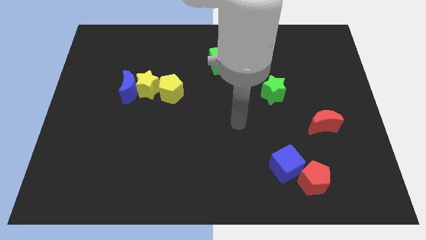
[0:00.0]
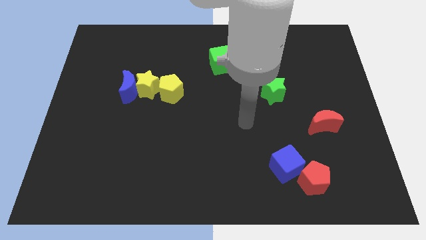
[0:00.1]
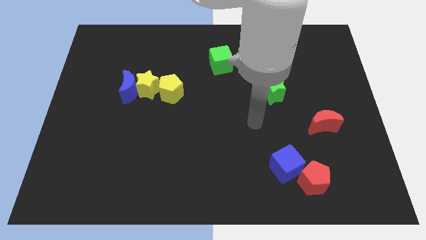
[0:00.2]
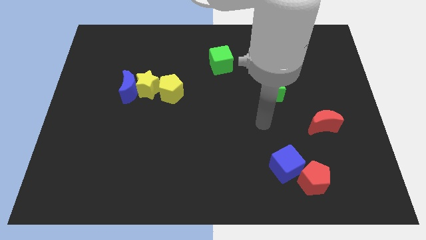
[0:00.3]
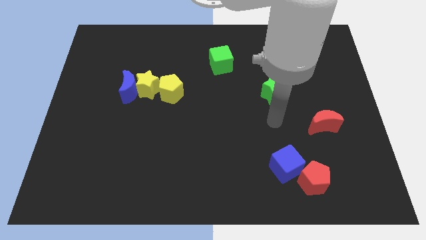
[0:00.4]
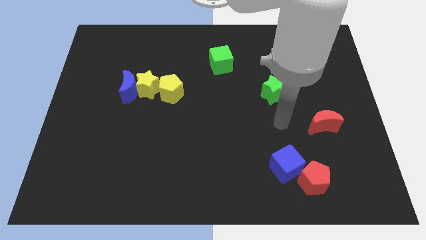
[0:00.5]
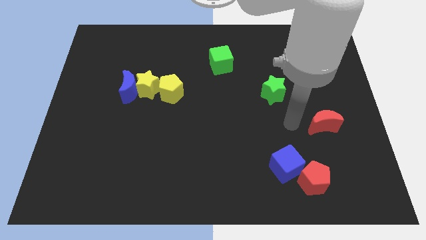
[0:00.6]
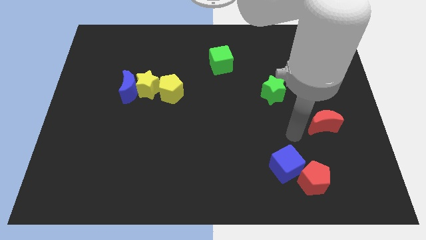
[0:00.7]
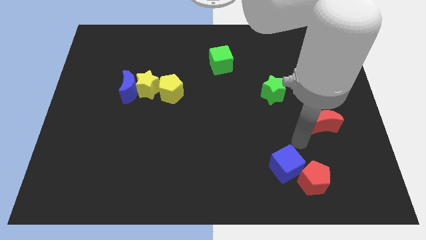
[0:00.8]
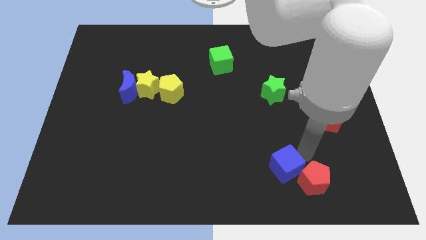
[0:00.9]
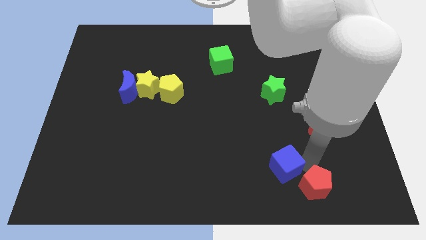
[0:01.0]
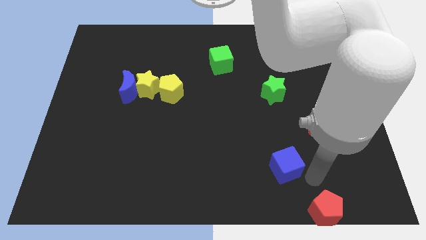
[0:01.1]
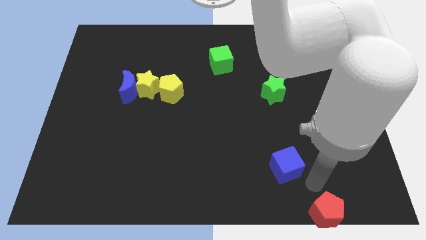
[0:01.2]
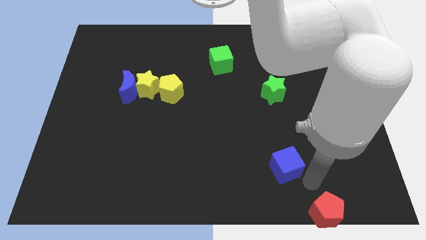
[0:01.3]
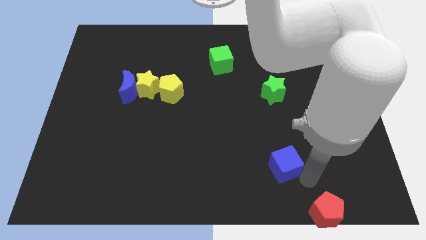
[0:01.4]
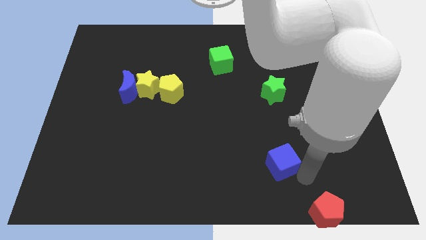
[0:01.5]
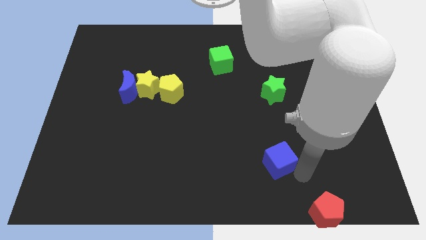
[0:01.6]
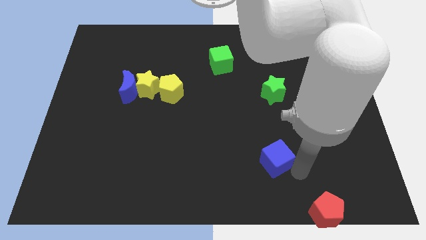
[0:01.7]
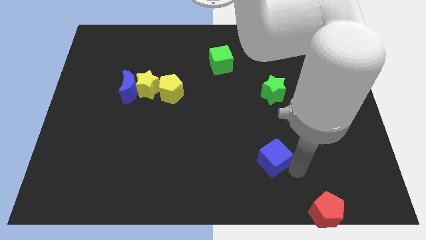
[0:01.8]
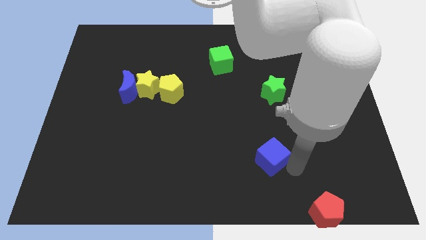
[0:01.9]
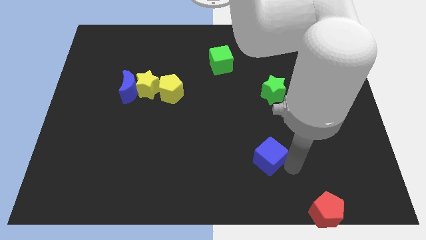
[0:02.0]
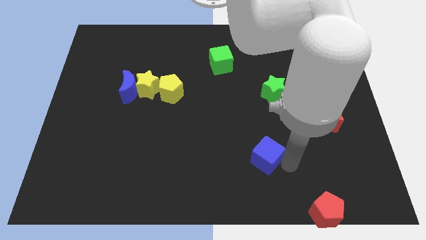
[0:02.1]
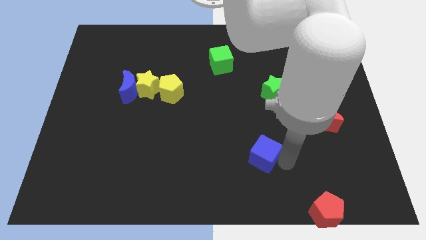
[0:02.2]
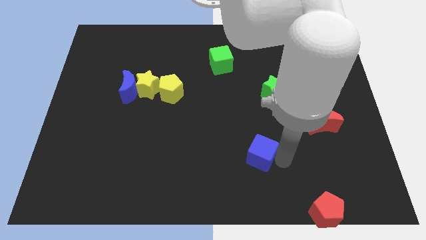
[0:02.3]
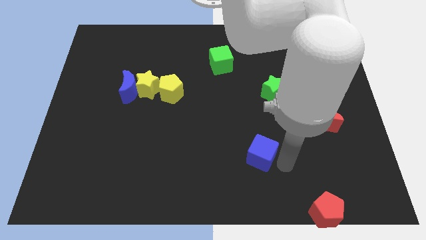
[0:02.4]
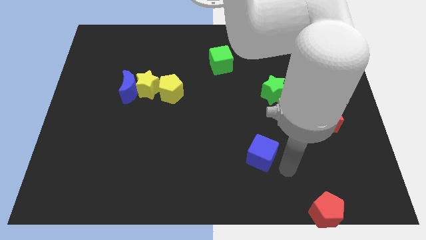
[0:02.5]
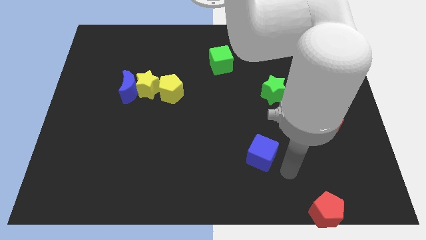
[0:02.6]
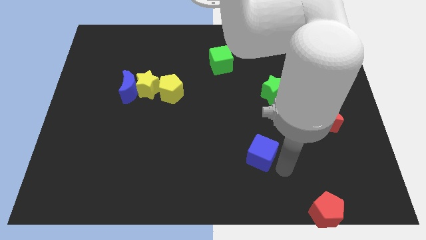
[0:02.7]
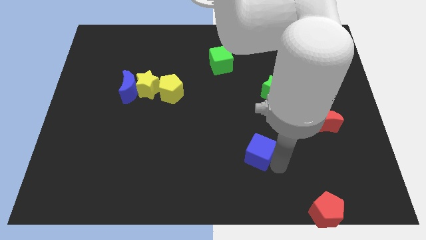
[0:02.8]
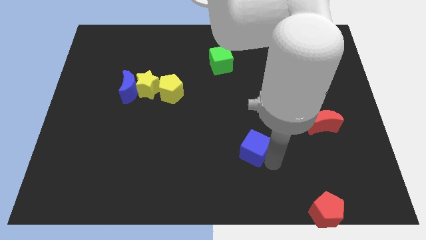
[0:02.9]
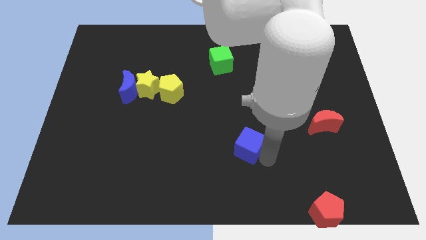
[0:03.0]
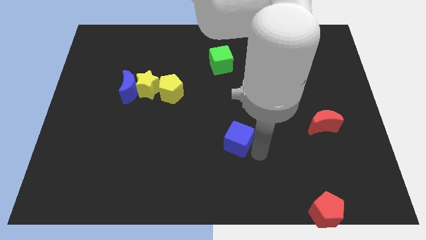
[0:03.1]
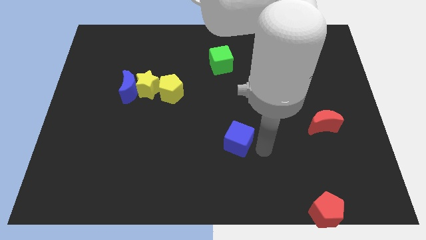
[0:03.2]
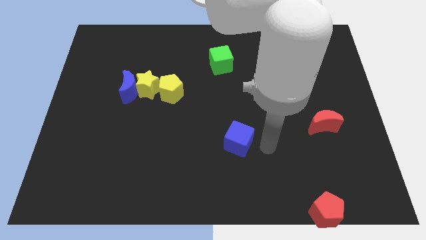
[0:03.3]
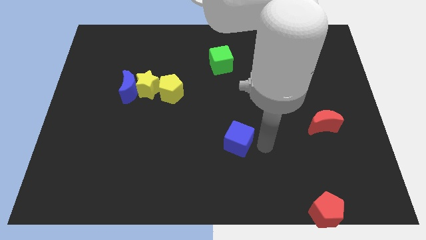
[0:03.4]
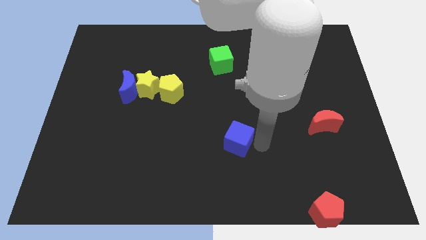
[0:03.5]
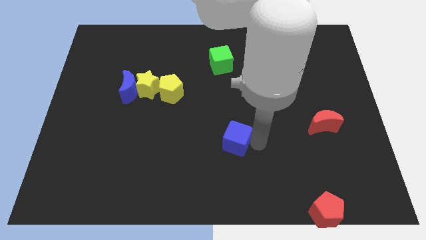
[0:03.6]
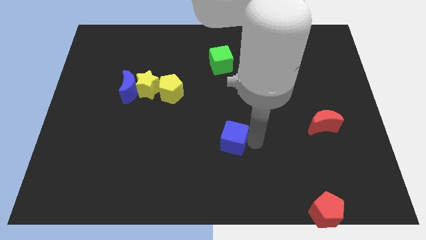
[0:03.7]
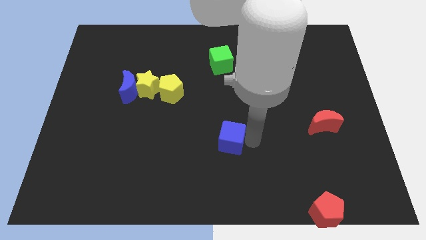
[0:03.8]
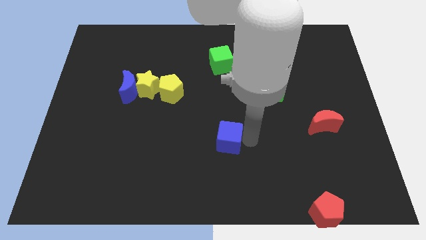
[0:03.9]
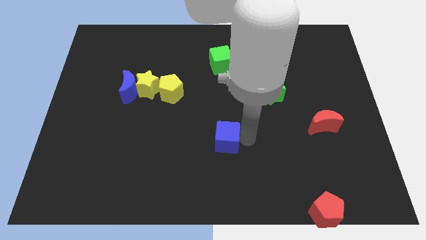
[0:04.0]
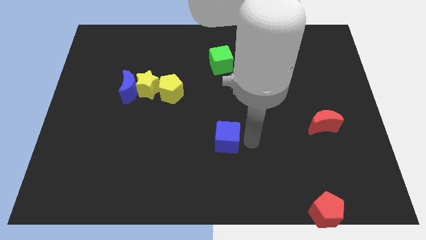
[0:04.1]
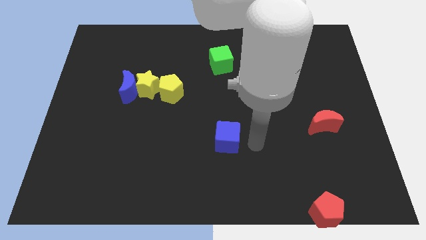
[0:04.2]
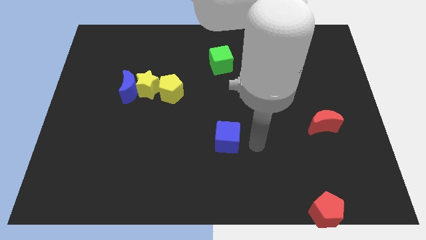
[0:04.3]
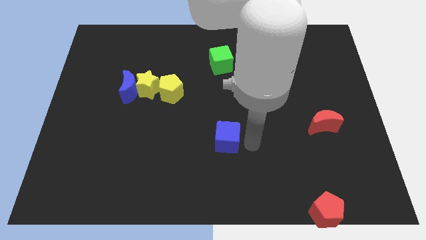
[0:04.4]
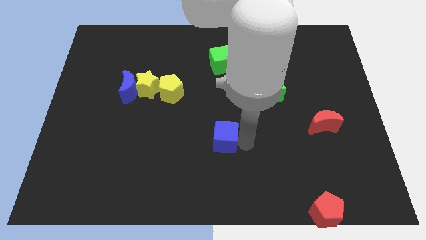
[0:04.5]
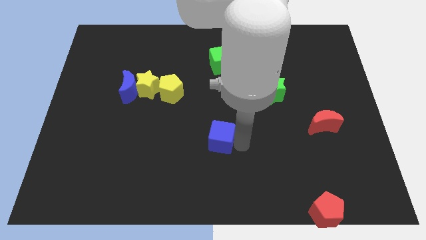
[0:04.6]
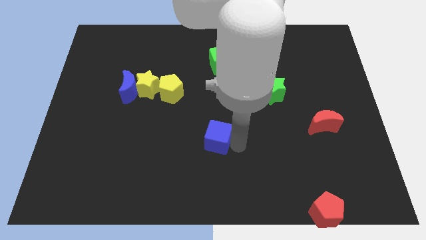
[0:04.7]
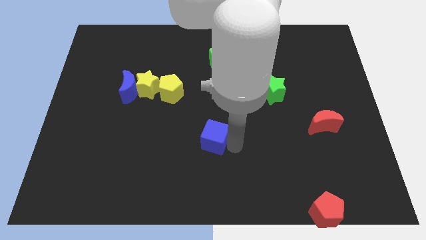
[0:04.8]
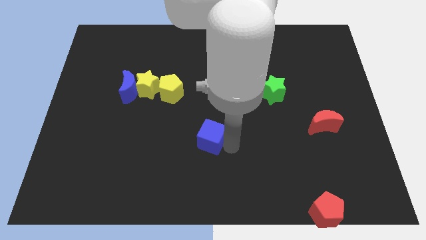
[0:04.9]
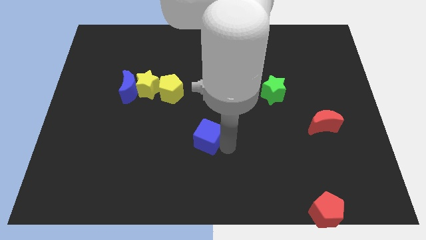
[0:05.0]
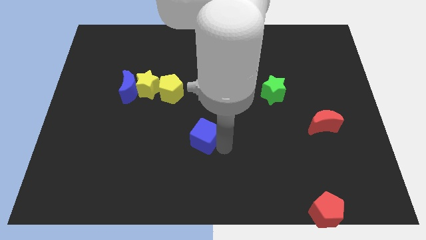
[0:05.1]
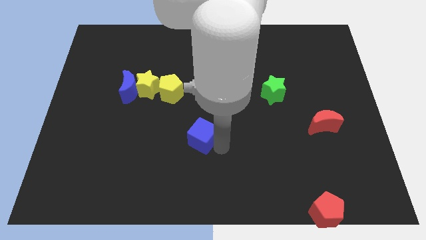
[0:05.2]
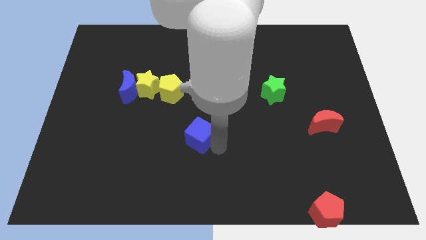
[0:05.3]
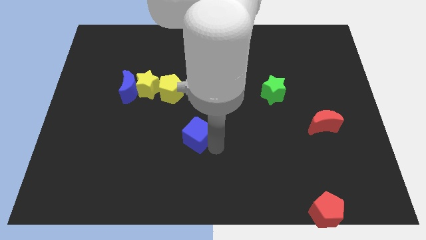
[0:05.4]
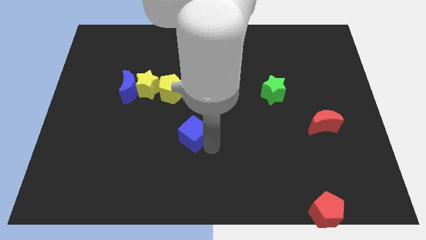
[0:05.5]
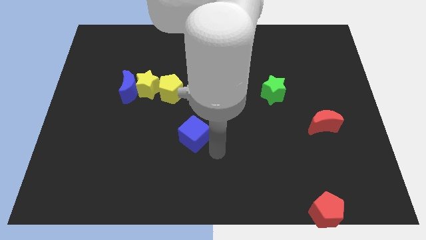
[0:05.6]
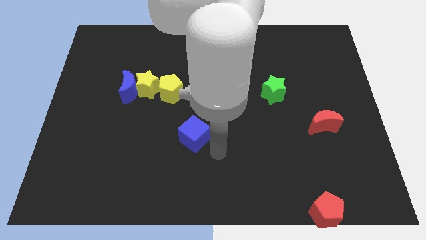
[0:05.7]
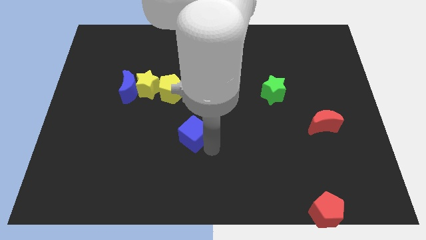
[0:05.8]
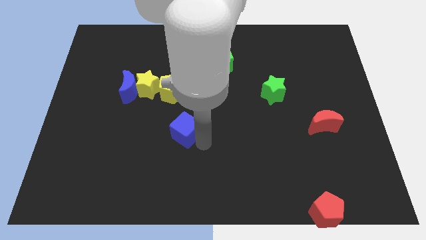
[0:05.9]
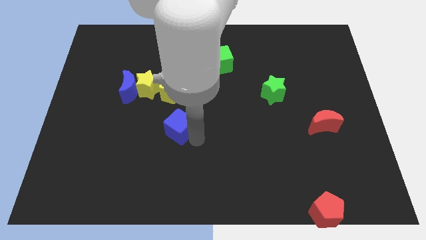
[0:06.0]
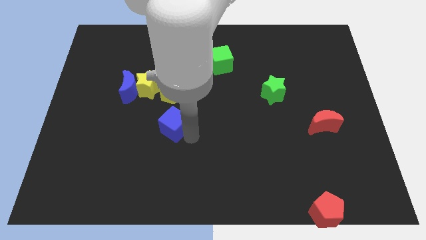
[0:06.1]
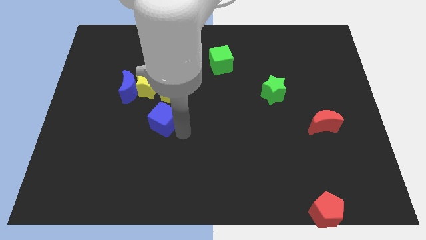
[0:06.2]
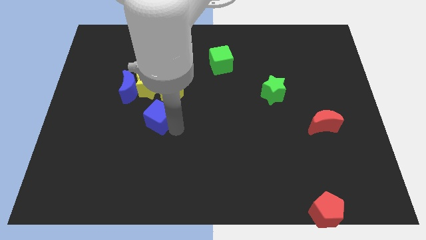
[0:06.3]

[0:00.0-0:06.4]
move the blue cube to the bottom left side of the yellow pentagon

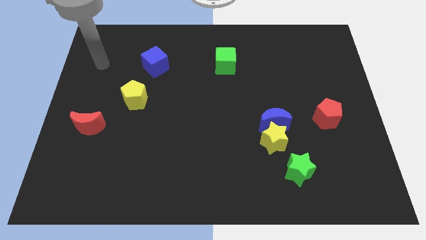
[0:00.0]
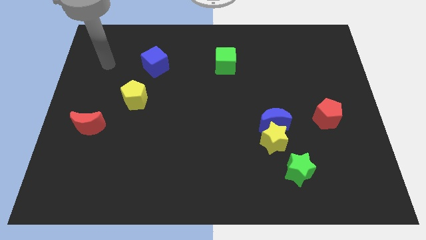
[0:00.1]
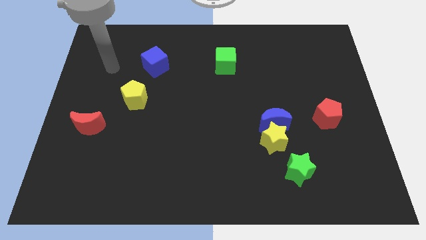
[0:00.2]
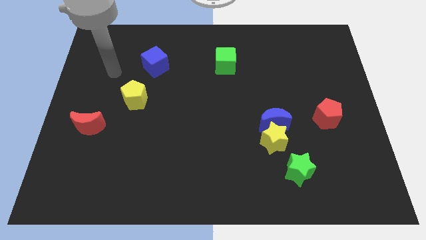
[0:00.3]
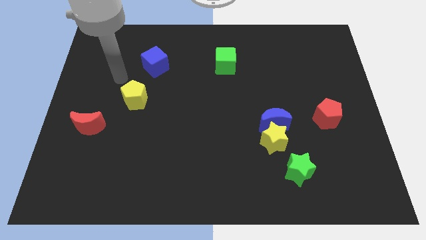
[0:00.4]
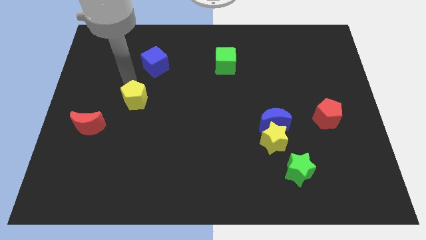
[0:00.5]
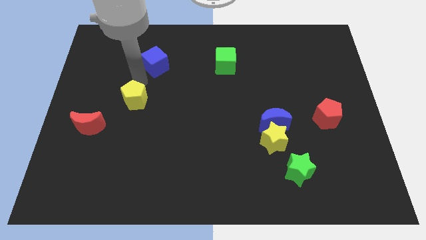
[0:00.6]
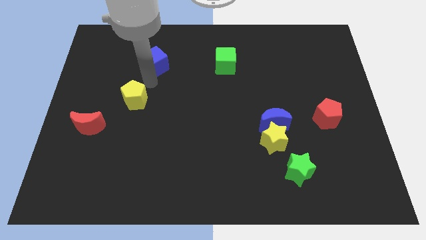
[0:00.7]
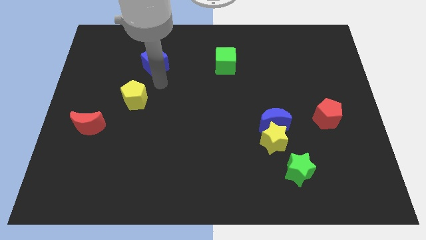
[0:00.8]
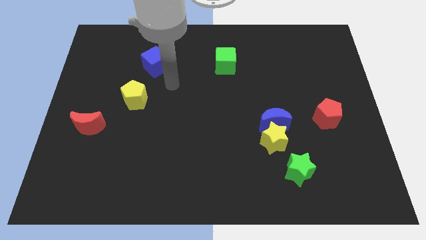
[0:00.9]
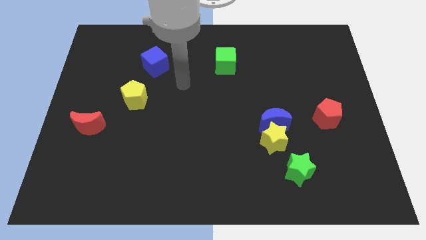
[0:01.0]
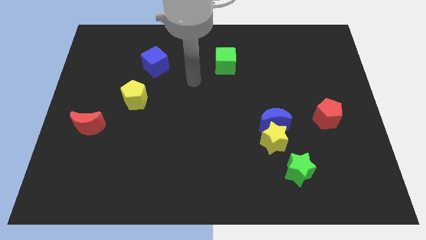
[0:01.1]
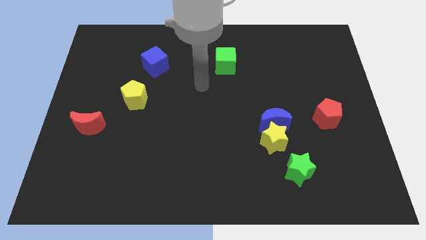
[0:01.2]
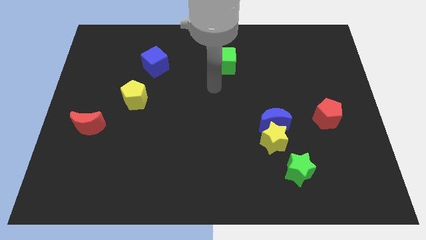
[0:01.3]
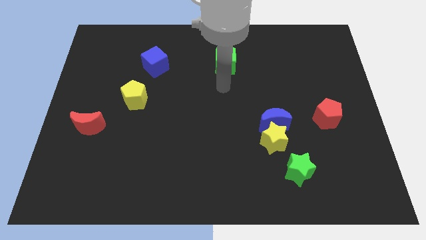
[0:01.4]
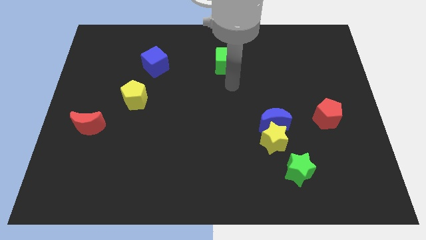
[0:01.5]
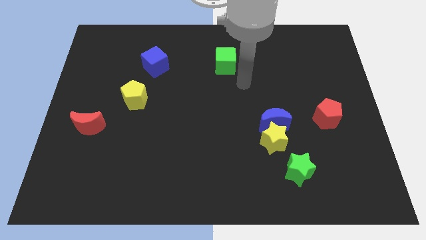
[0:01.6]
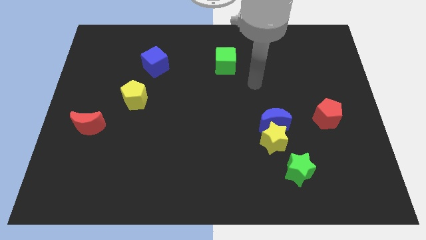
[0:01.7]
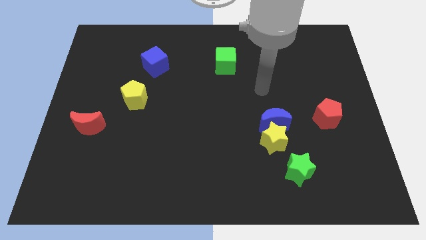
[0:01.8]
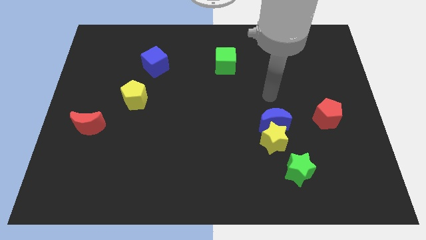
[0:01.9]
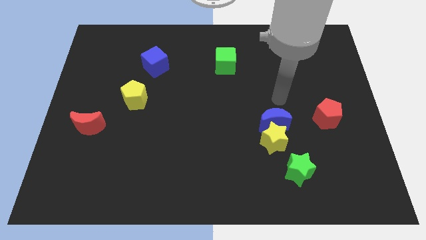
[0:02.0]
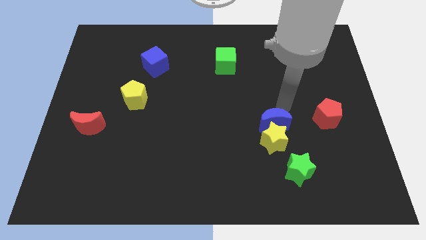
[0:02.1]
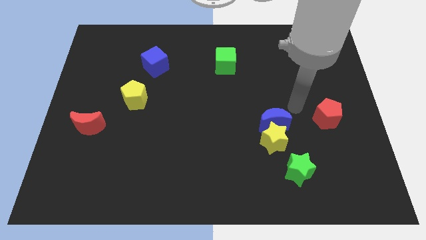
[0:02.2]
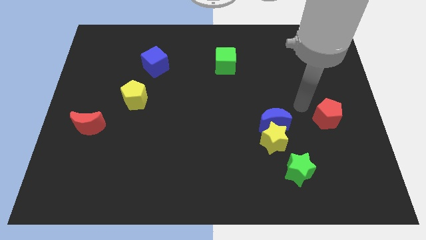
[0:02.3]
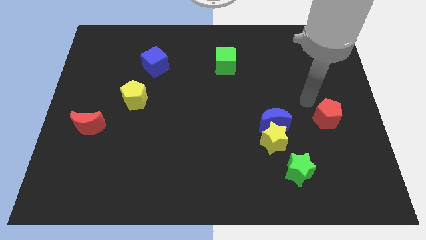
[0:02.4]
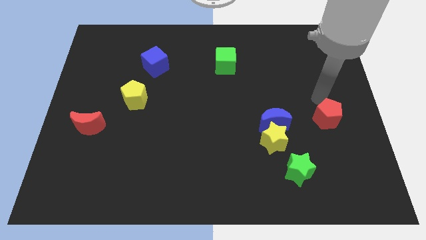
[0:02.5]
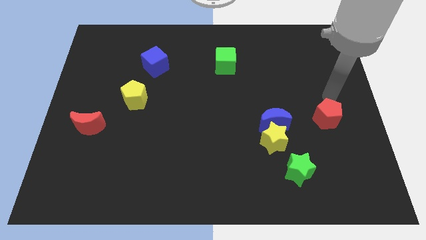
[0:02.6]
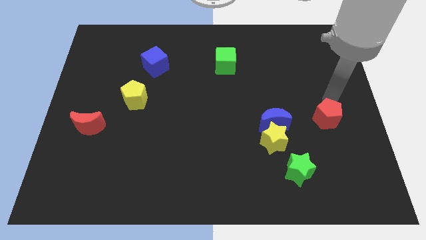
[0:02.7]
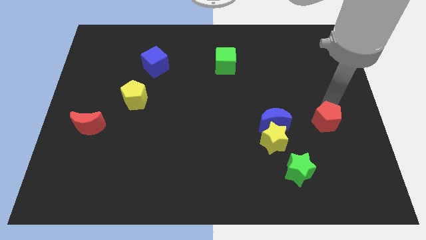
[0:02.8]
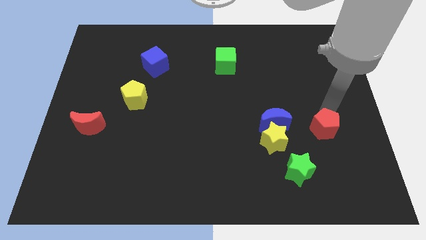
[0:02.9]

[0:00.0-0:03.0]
put the red pentagon to the right side of the yellow star
